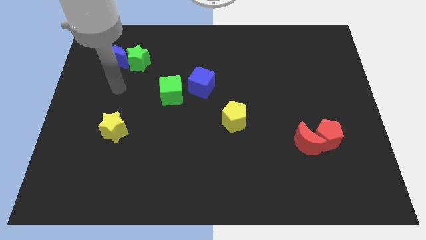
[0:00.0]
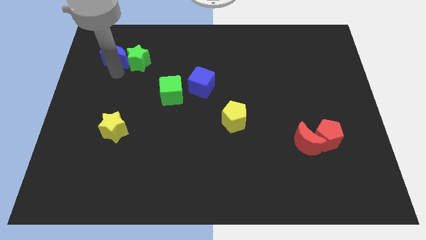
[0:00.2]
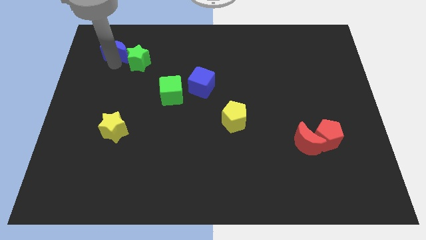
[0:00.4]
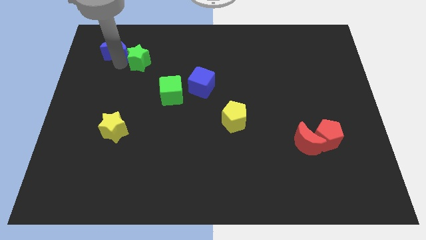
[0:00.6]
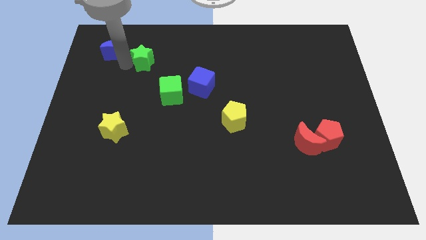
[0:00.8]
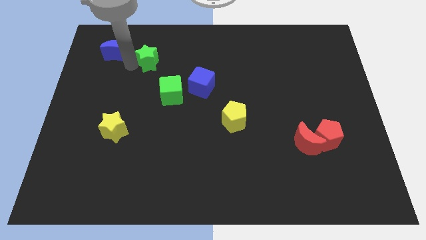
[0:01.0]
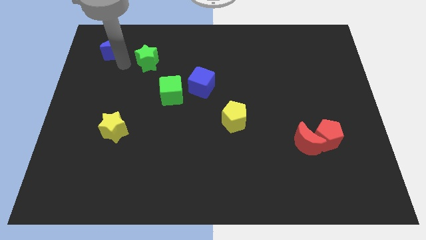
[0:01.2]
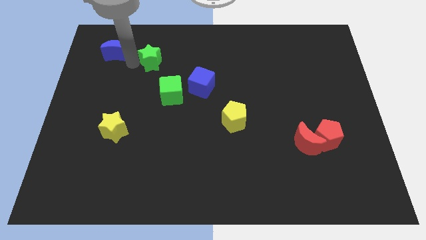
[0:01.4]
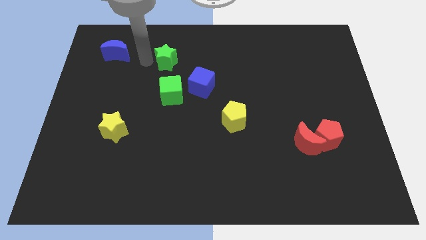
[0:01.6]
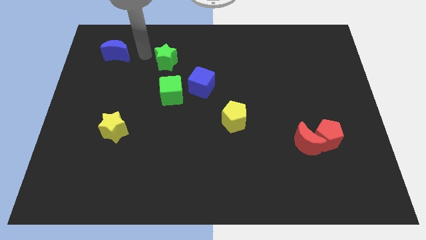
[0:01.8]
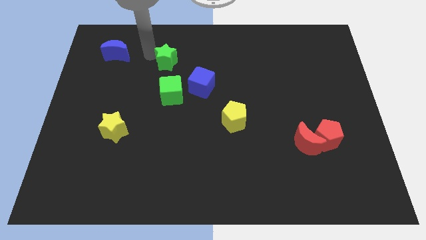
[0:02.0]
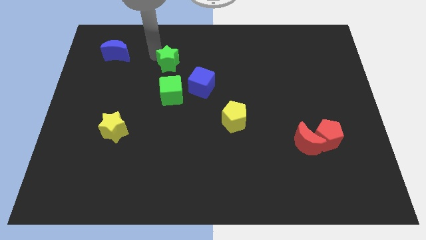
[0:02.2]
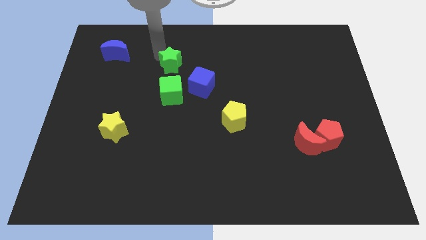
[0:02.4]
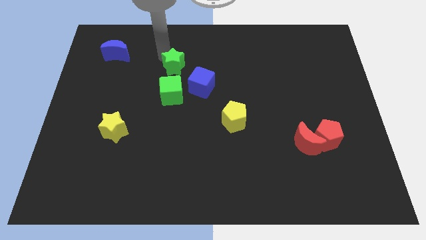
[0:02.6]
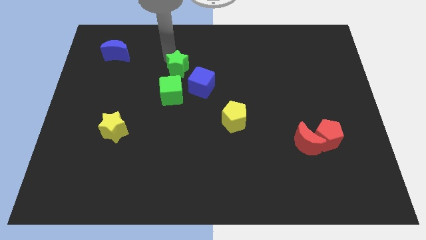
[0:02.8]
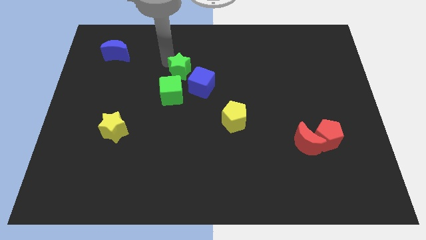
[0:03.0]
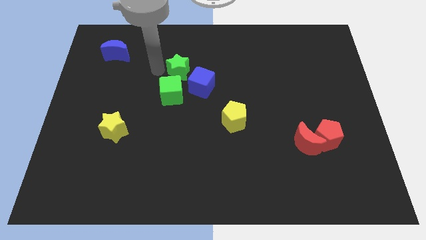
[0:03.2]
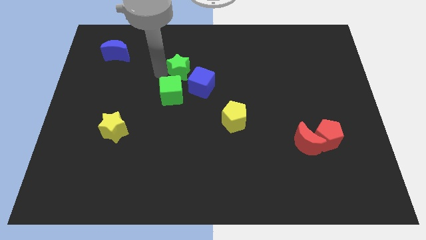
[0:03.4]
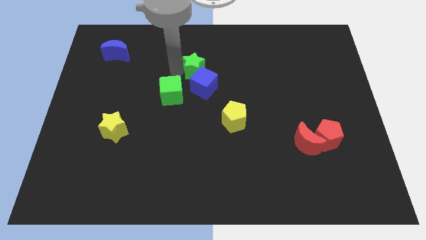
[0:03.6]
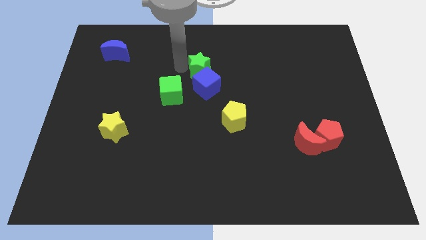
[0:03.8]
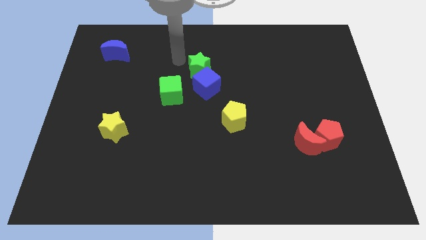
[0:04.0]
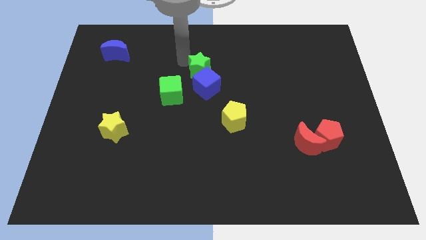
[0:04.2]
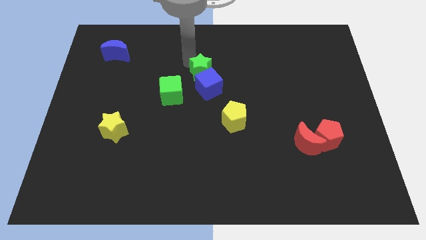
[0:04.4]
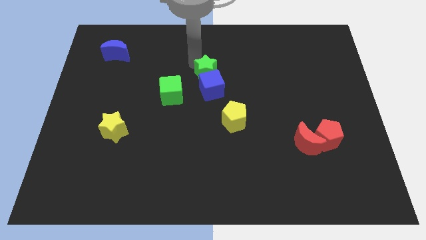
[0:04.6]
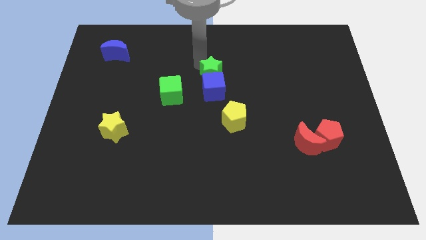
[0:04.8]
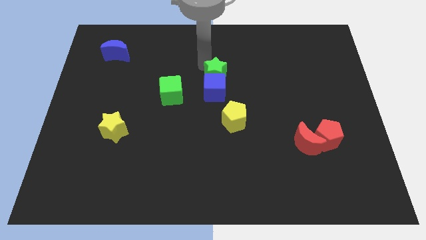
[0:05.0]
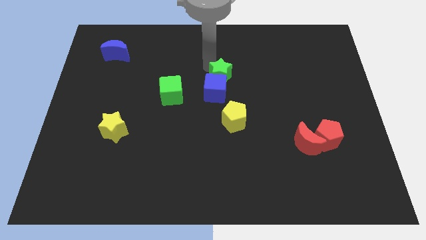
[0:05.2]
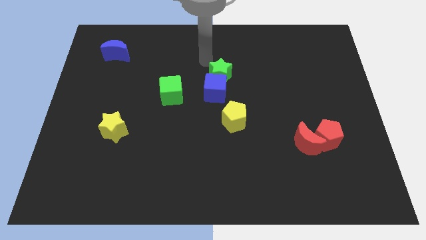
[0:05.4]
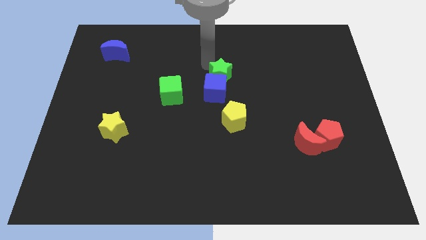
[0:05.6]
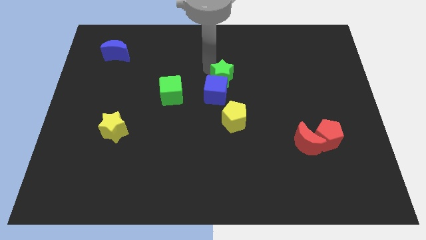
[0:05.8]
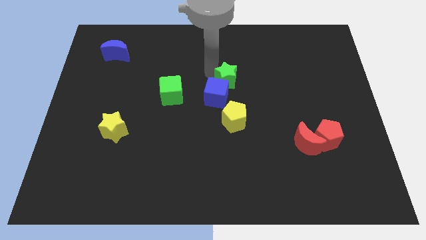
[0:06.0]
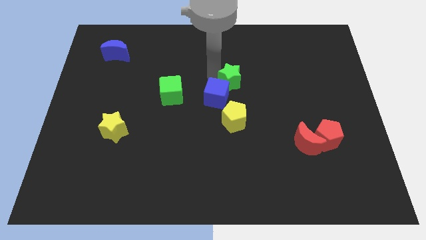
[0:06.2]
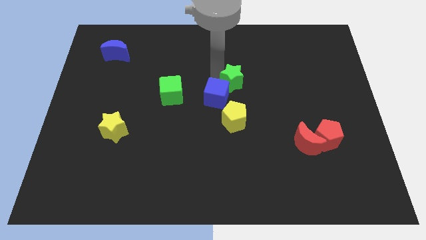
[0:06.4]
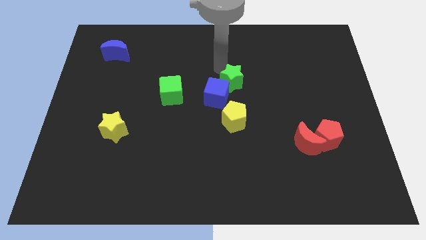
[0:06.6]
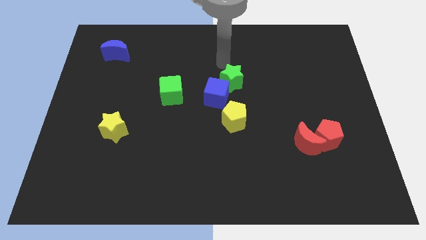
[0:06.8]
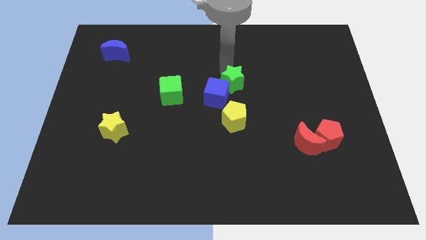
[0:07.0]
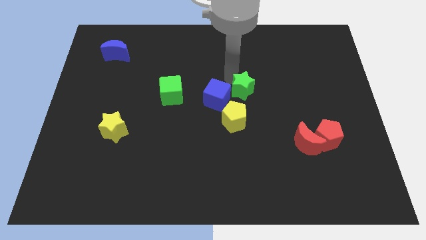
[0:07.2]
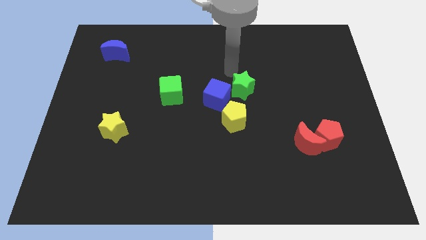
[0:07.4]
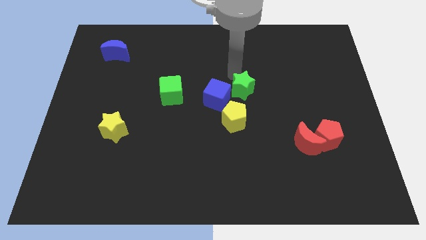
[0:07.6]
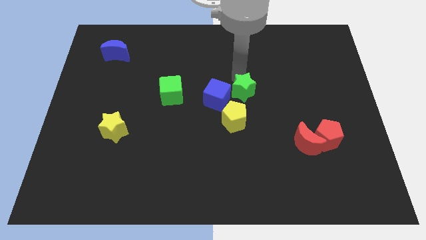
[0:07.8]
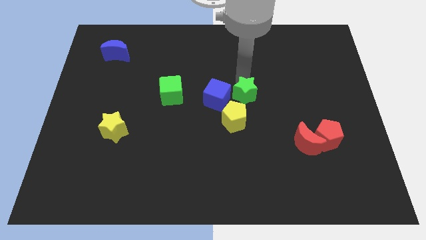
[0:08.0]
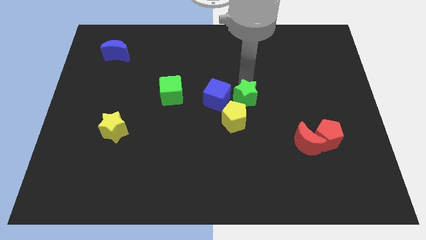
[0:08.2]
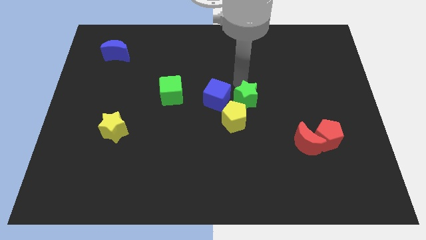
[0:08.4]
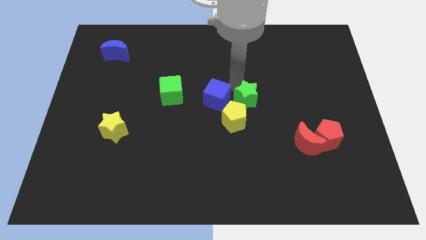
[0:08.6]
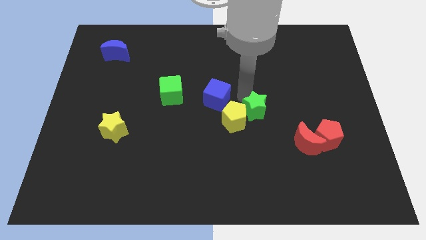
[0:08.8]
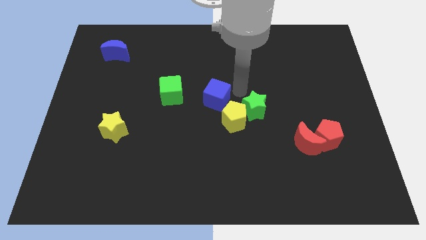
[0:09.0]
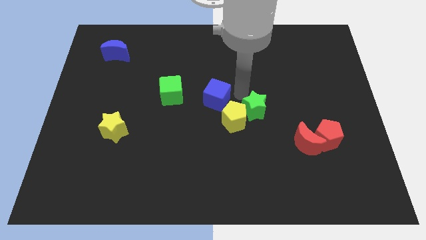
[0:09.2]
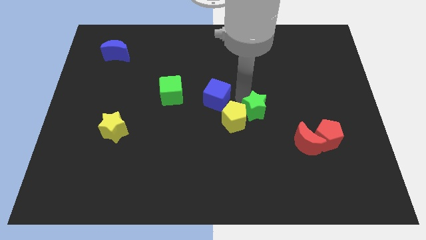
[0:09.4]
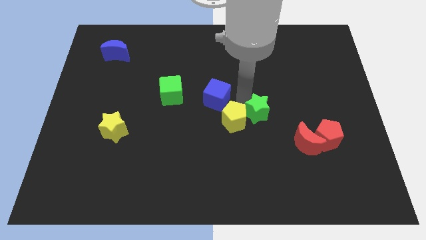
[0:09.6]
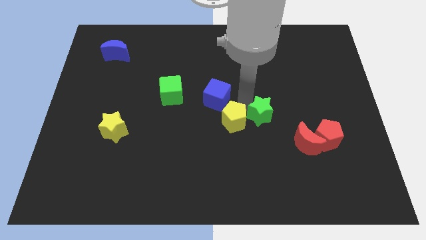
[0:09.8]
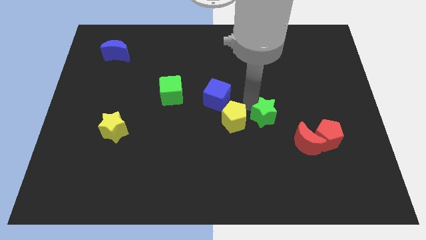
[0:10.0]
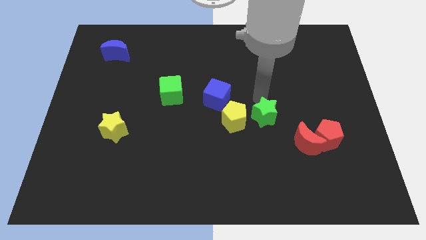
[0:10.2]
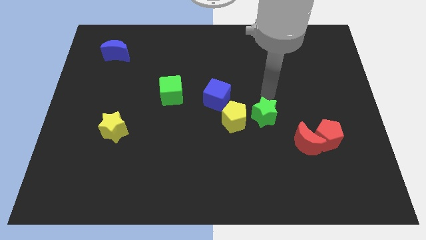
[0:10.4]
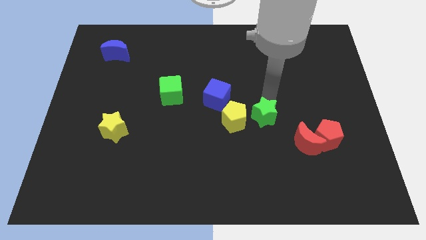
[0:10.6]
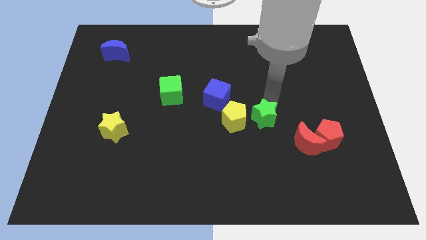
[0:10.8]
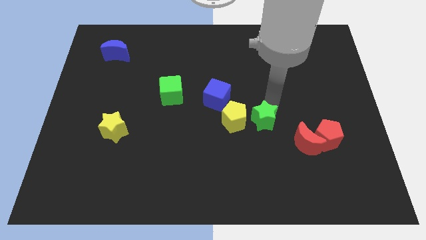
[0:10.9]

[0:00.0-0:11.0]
push the green star diagonally down and to the right of the yellow pentagon
